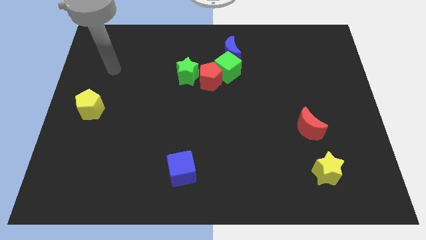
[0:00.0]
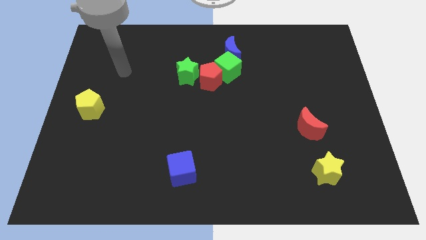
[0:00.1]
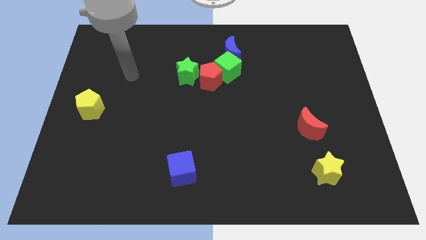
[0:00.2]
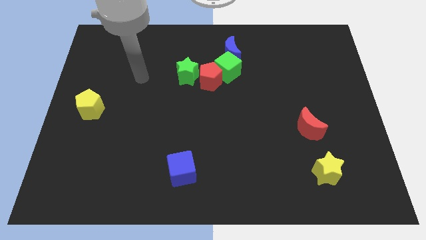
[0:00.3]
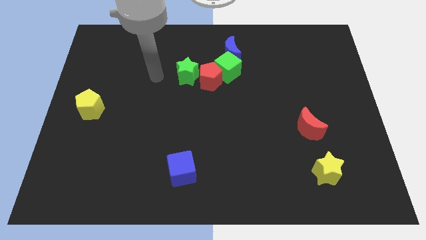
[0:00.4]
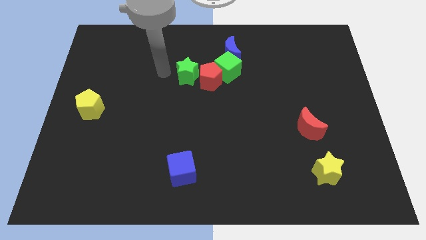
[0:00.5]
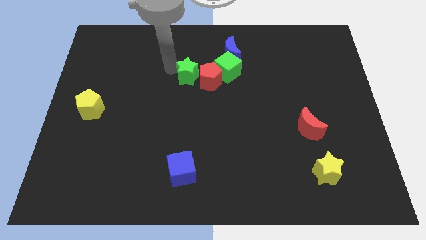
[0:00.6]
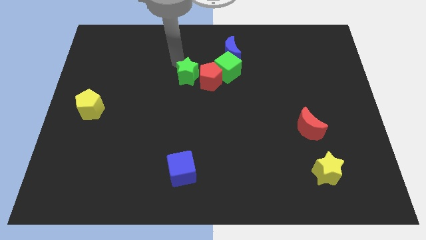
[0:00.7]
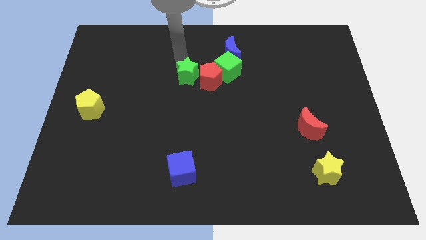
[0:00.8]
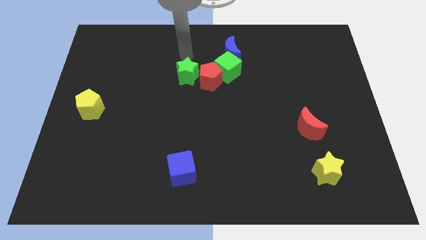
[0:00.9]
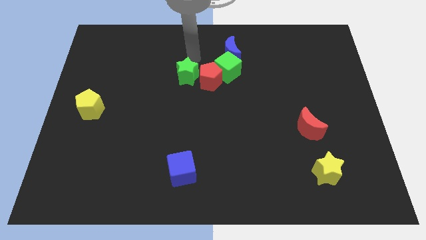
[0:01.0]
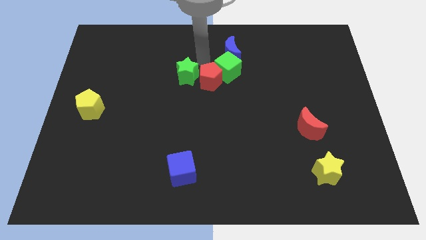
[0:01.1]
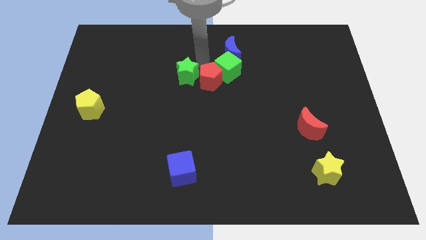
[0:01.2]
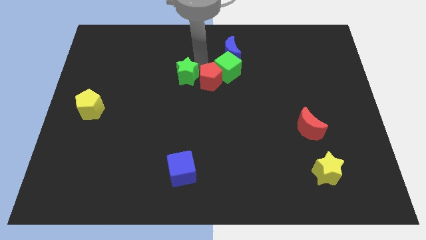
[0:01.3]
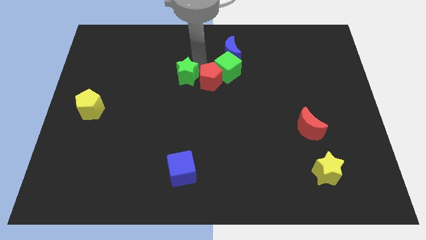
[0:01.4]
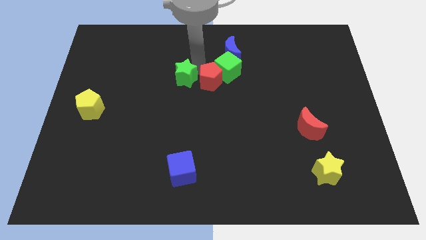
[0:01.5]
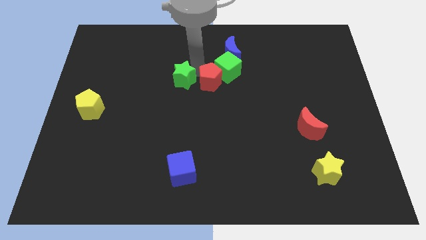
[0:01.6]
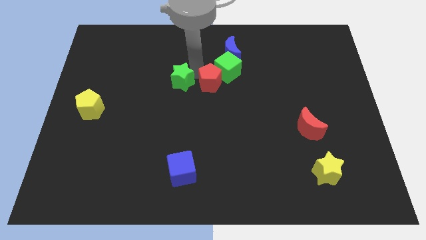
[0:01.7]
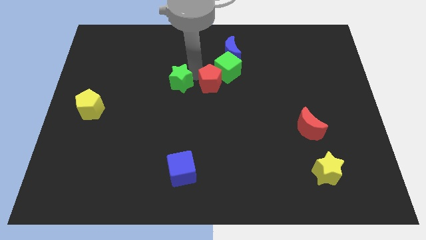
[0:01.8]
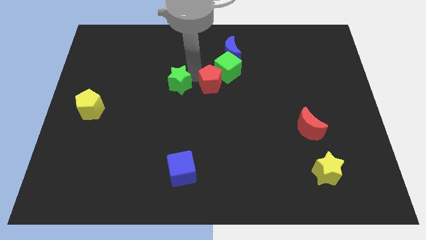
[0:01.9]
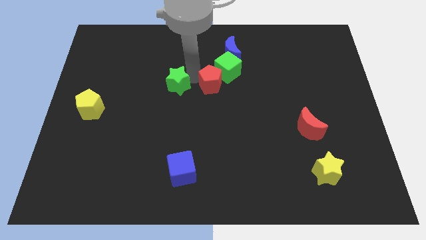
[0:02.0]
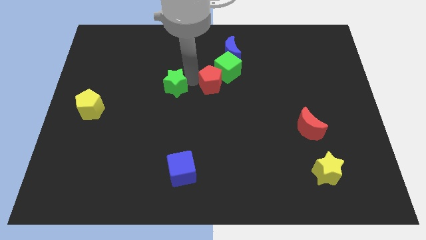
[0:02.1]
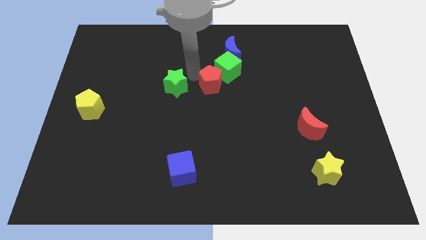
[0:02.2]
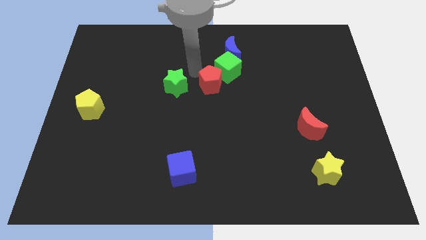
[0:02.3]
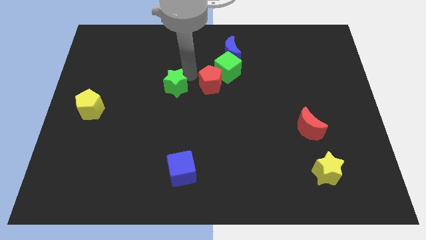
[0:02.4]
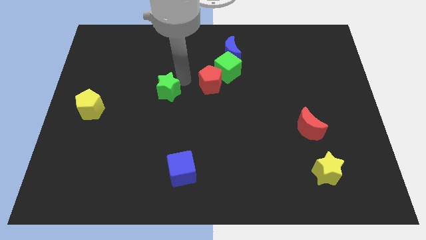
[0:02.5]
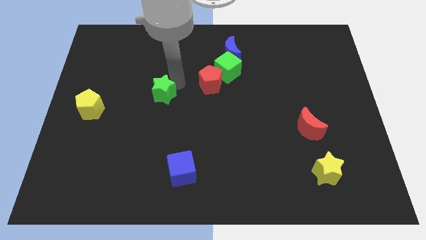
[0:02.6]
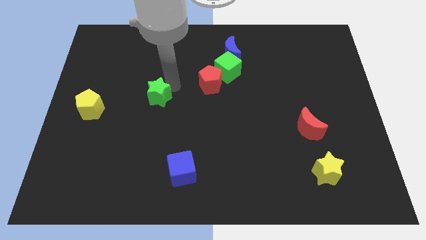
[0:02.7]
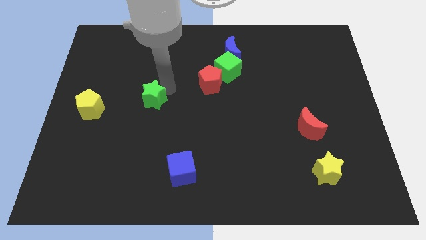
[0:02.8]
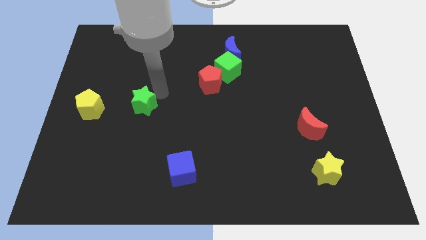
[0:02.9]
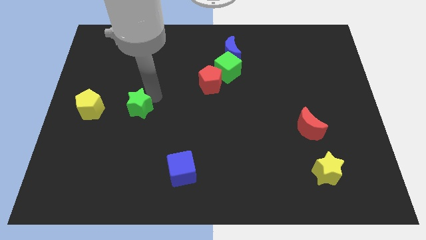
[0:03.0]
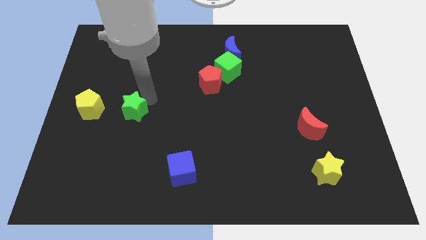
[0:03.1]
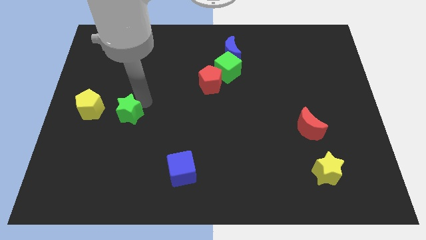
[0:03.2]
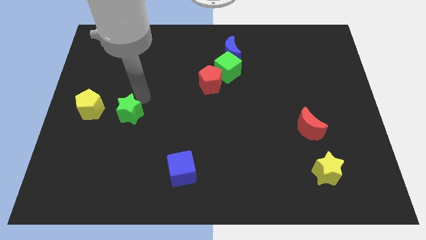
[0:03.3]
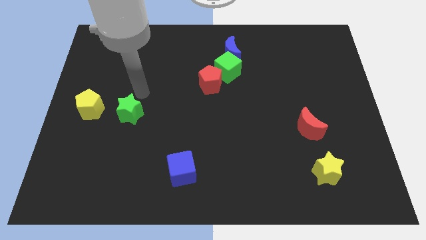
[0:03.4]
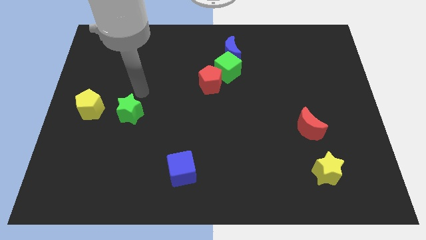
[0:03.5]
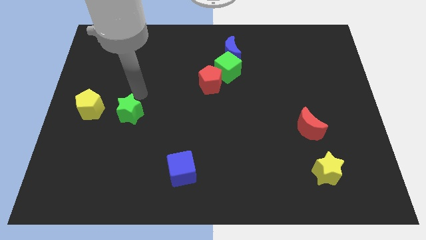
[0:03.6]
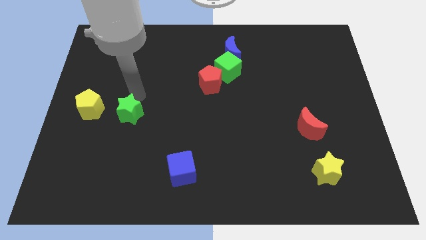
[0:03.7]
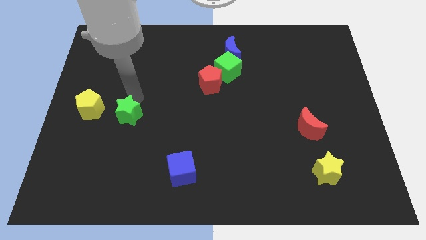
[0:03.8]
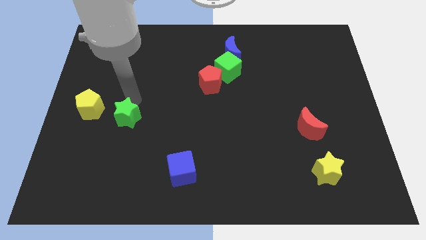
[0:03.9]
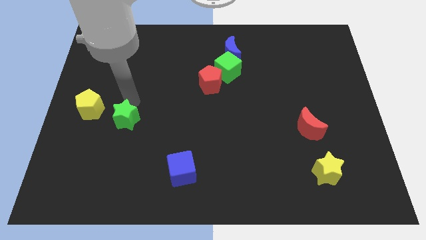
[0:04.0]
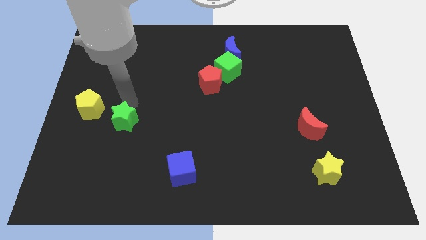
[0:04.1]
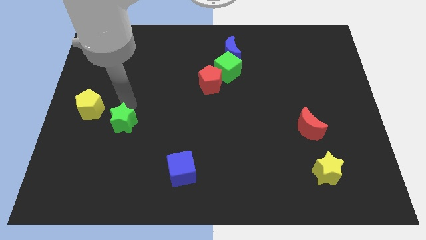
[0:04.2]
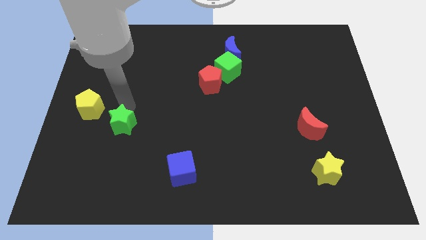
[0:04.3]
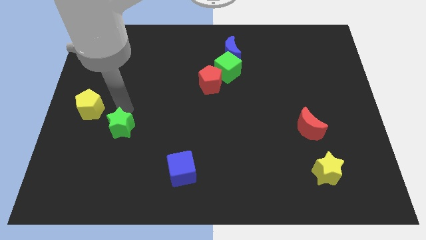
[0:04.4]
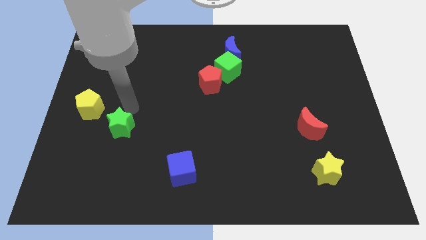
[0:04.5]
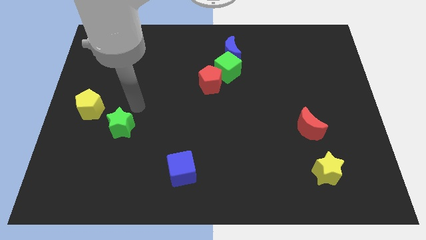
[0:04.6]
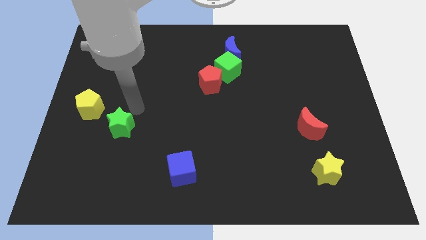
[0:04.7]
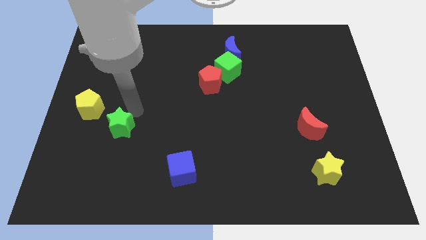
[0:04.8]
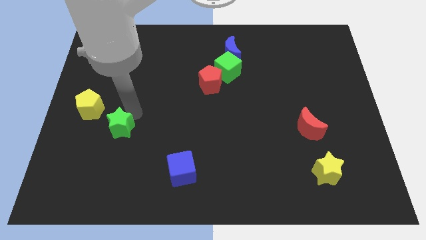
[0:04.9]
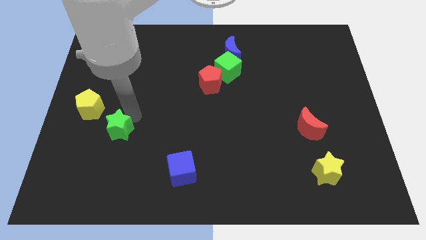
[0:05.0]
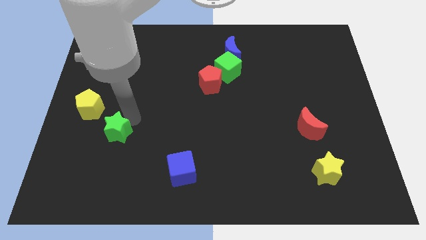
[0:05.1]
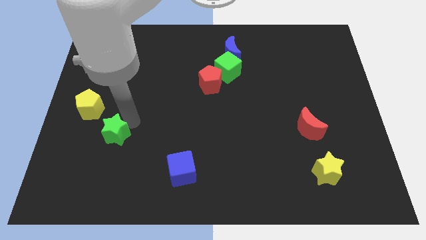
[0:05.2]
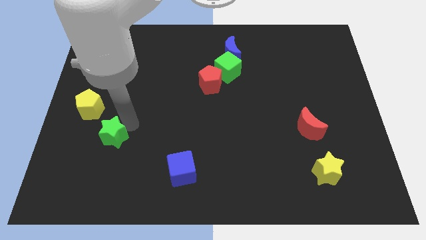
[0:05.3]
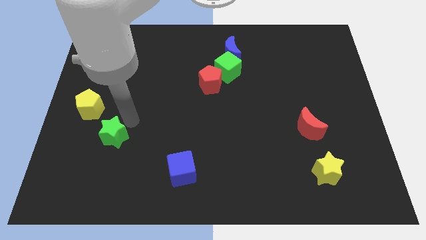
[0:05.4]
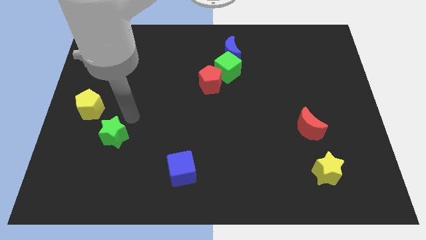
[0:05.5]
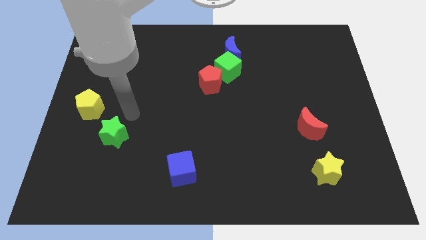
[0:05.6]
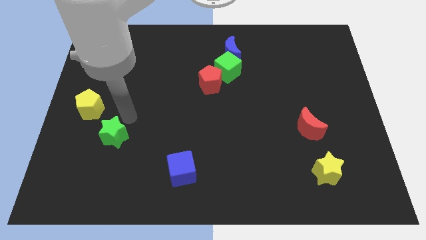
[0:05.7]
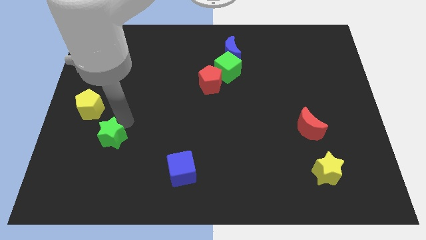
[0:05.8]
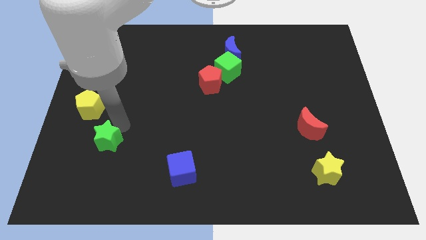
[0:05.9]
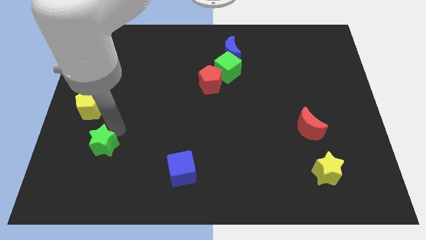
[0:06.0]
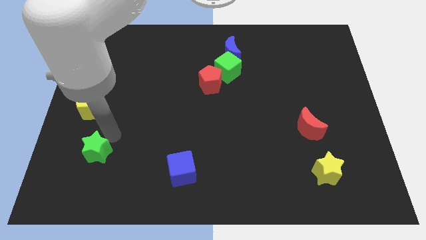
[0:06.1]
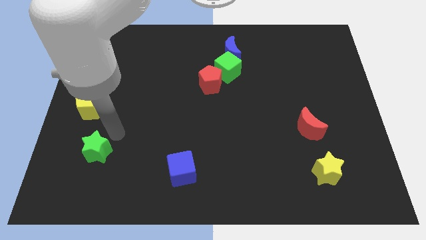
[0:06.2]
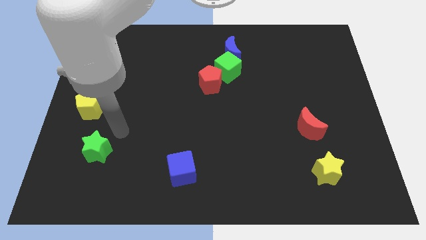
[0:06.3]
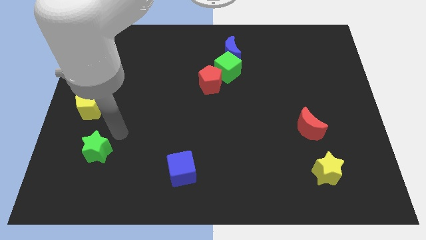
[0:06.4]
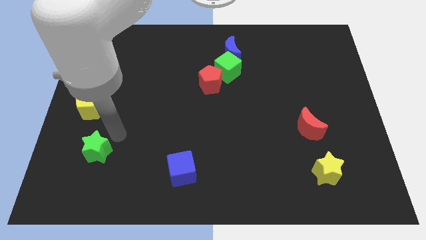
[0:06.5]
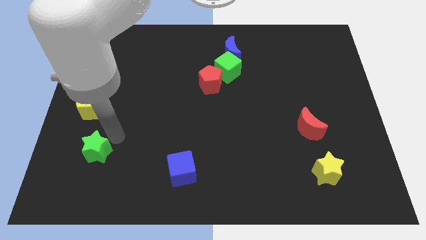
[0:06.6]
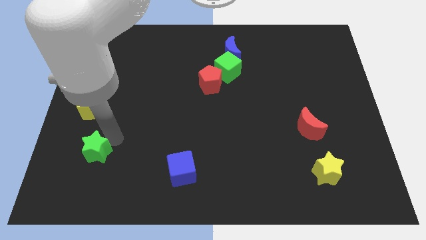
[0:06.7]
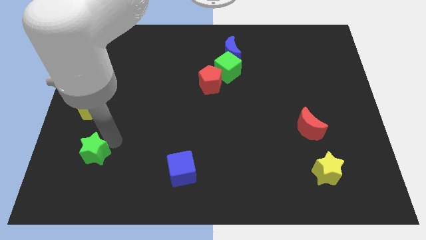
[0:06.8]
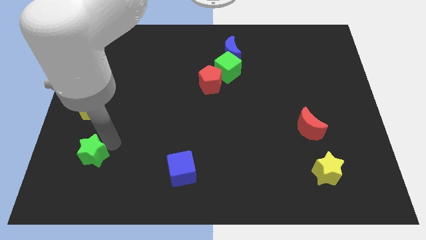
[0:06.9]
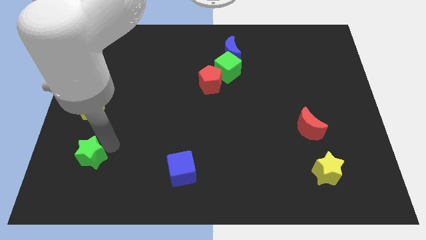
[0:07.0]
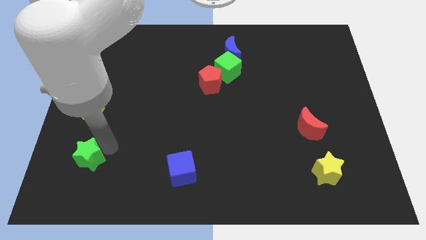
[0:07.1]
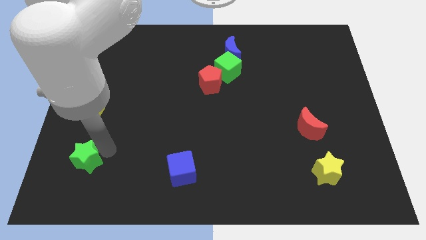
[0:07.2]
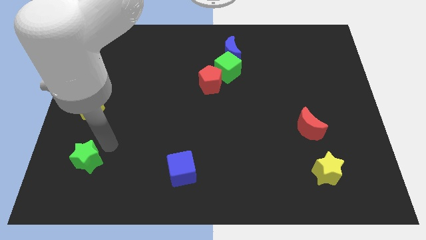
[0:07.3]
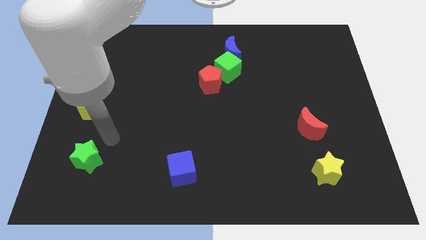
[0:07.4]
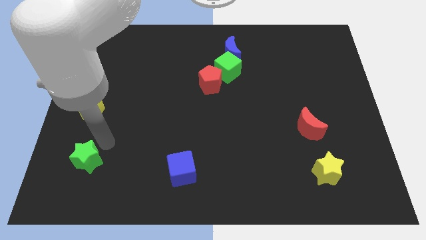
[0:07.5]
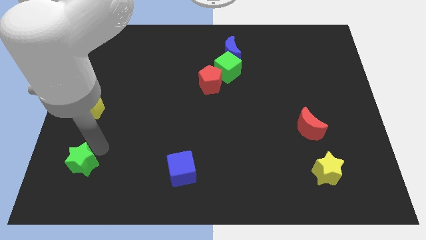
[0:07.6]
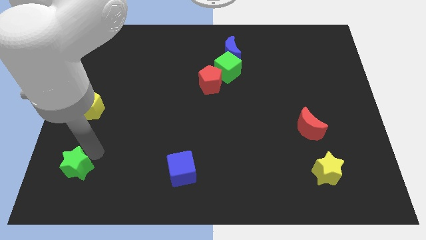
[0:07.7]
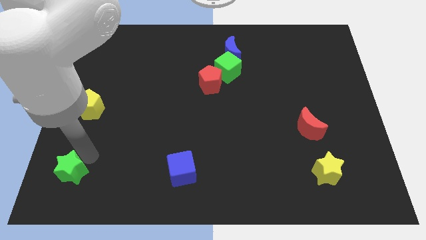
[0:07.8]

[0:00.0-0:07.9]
push the green star to the bottom left corner
